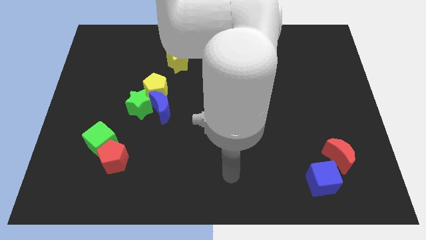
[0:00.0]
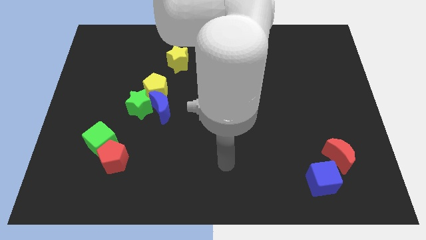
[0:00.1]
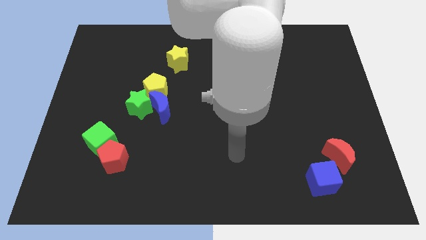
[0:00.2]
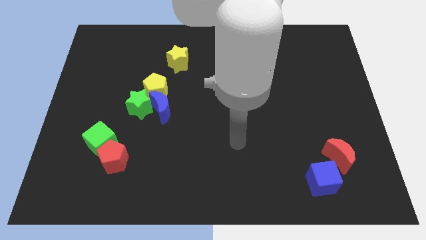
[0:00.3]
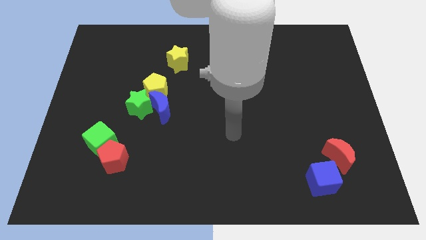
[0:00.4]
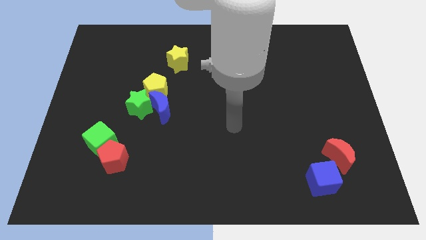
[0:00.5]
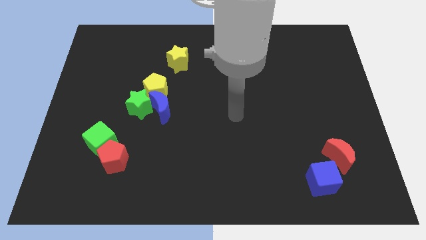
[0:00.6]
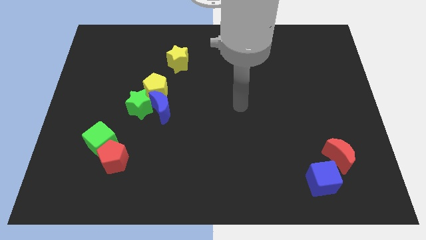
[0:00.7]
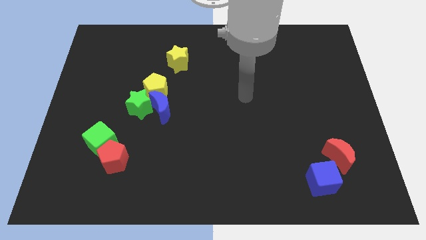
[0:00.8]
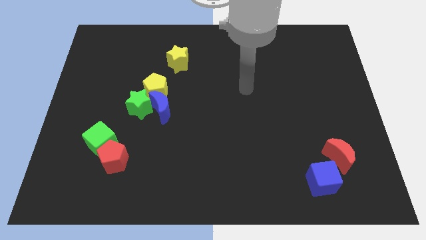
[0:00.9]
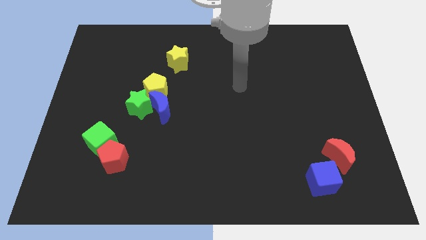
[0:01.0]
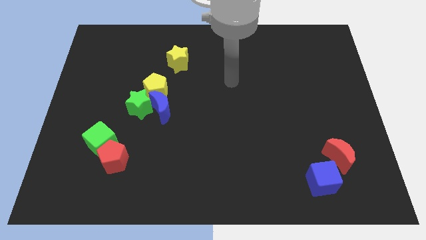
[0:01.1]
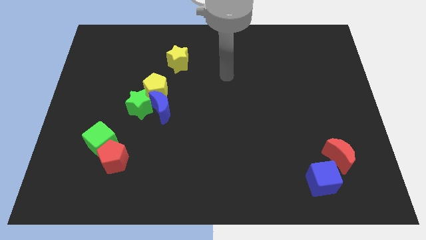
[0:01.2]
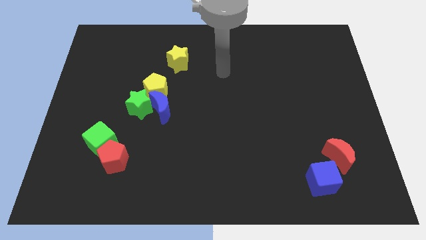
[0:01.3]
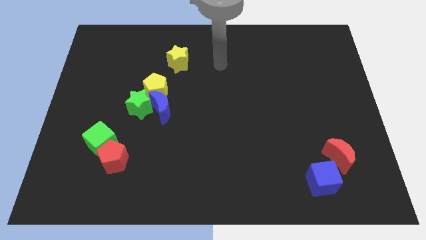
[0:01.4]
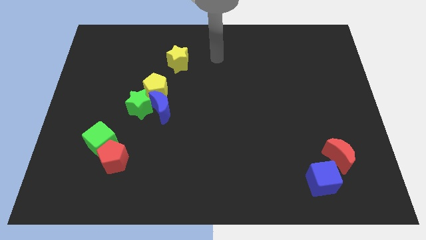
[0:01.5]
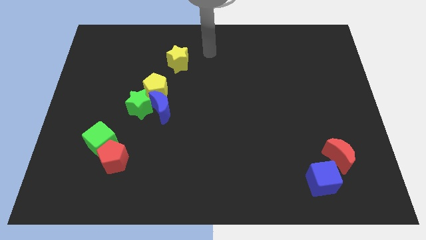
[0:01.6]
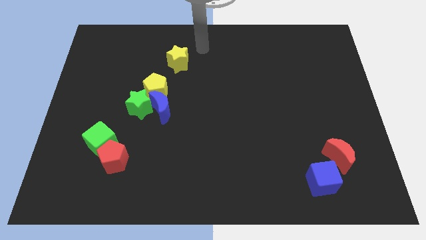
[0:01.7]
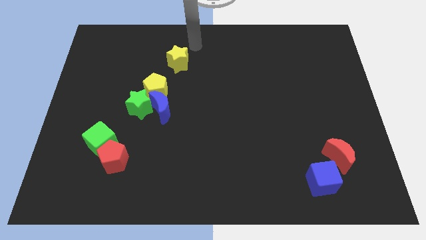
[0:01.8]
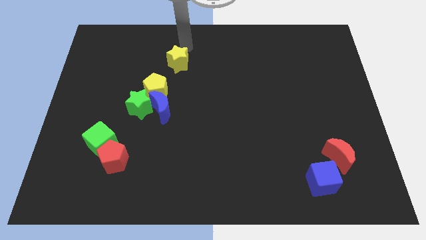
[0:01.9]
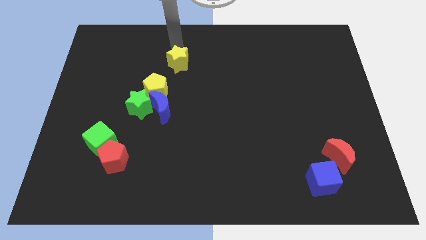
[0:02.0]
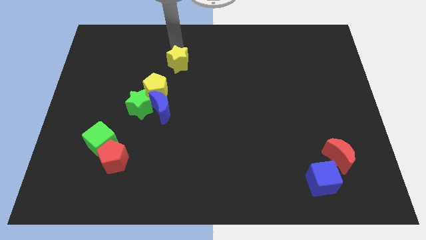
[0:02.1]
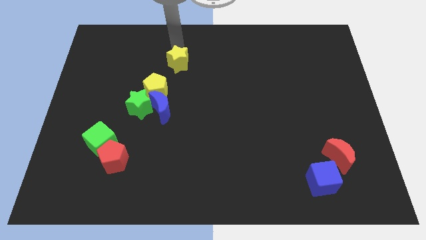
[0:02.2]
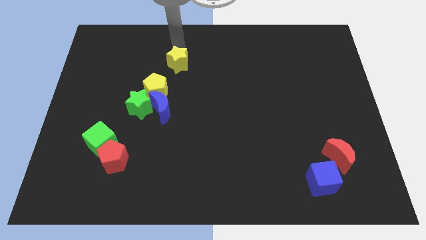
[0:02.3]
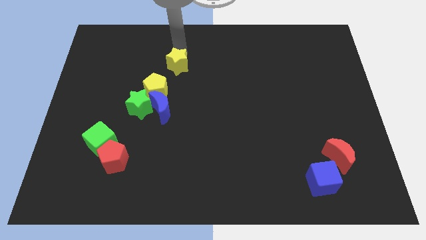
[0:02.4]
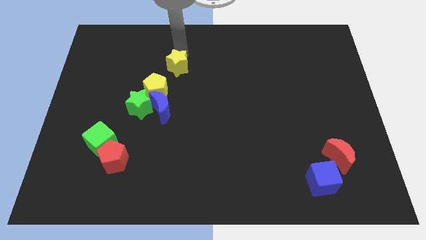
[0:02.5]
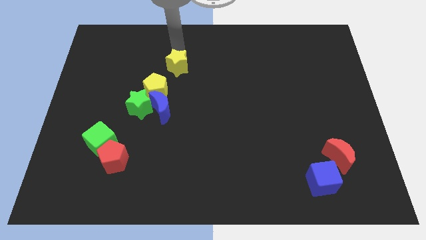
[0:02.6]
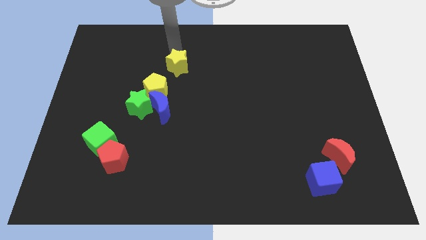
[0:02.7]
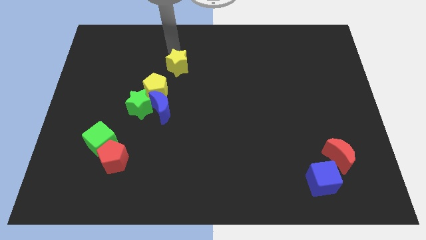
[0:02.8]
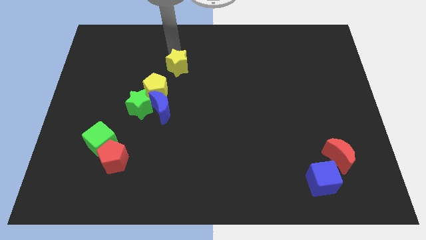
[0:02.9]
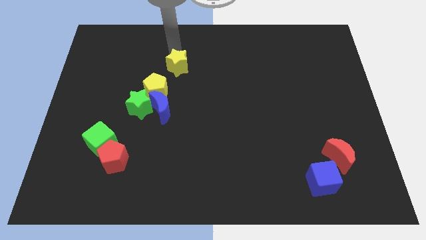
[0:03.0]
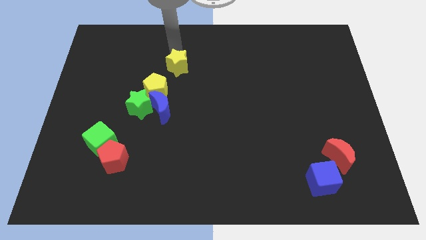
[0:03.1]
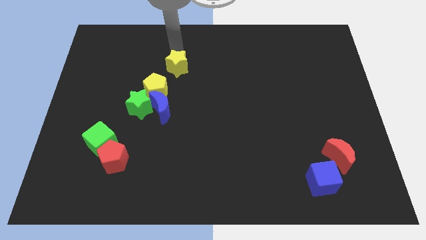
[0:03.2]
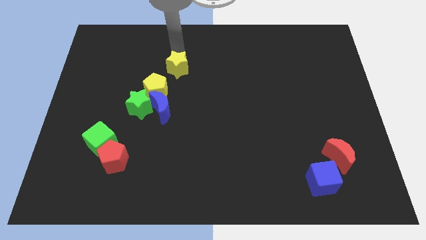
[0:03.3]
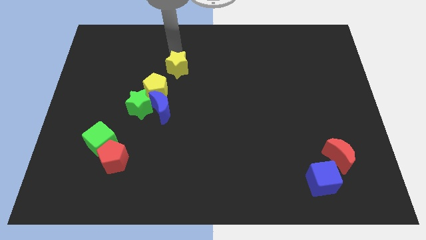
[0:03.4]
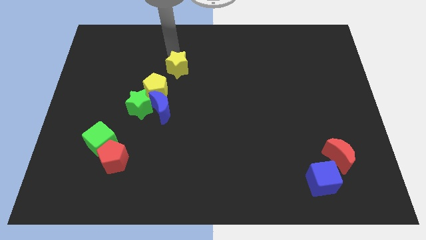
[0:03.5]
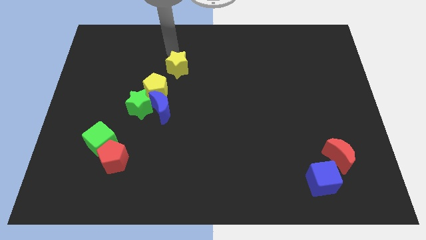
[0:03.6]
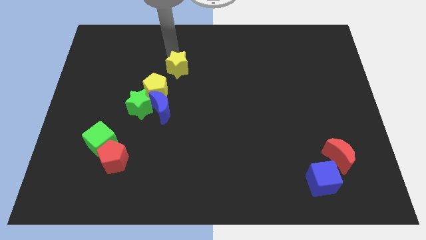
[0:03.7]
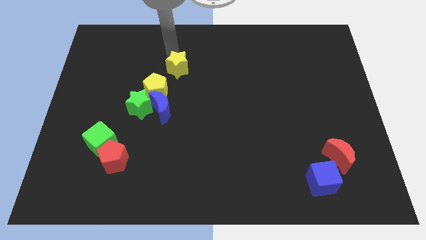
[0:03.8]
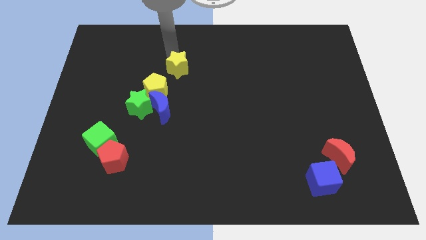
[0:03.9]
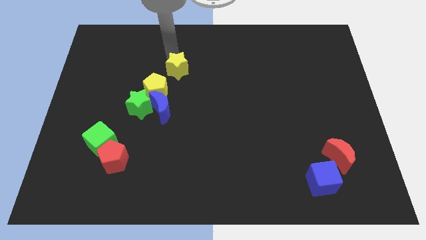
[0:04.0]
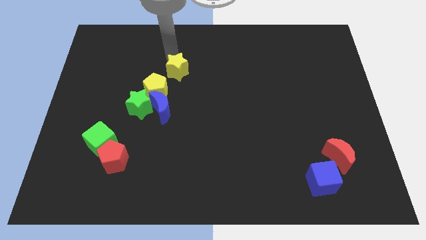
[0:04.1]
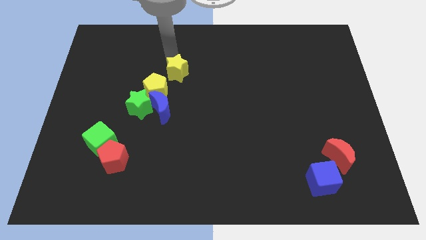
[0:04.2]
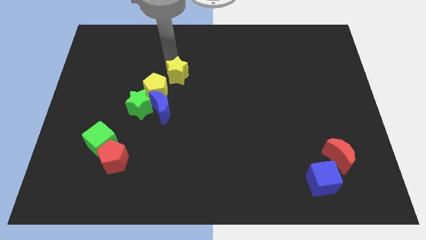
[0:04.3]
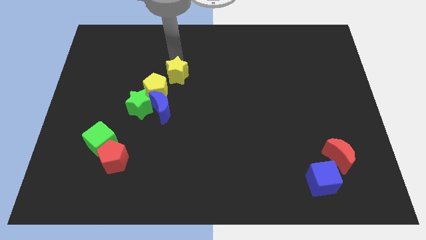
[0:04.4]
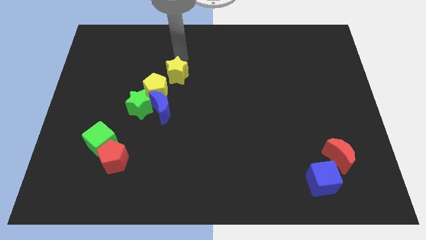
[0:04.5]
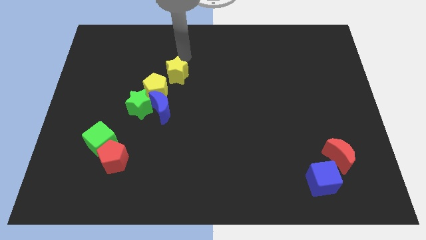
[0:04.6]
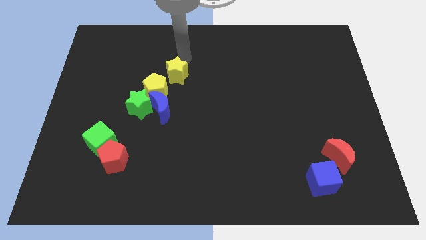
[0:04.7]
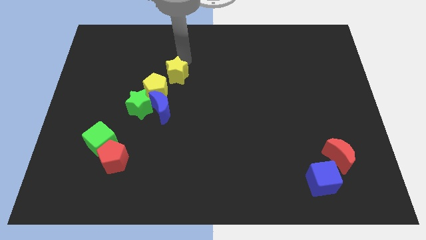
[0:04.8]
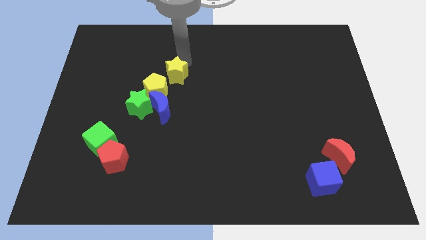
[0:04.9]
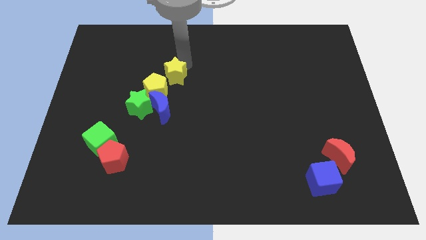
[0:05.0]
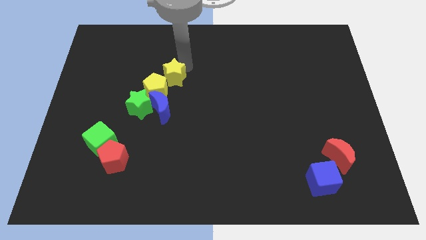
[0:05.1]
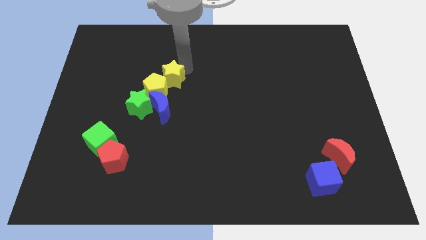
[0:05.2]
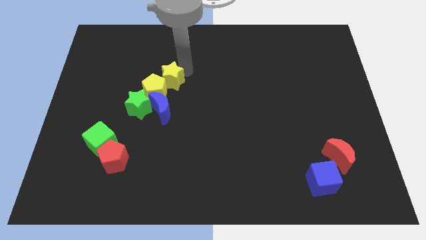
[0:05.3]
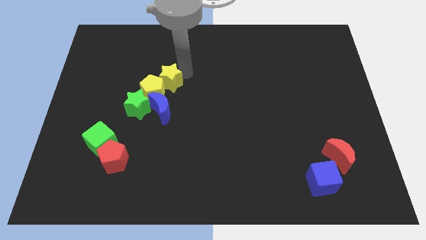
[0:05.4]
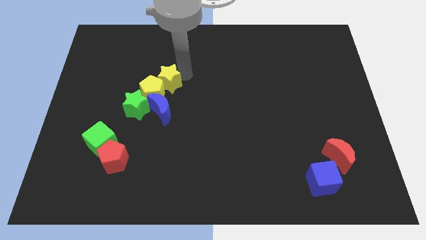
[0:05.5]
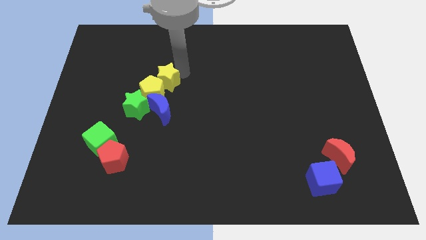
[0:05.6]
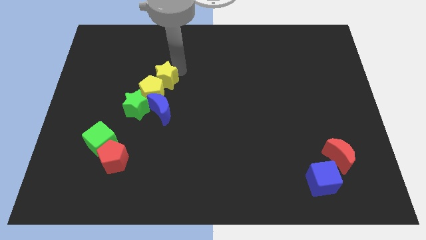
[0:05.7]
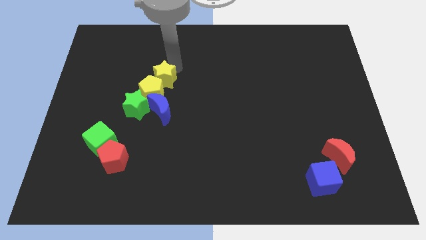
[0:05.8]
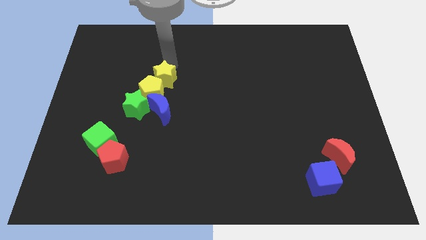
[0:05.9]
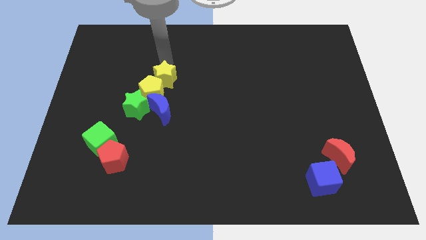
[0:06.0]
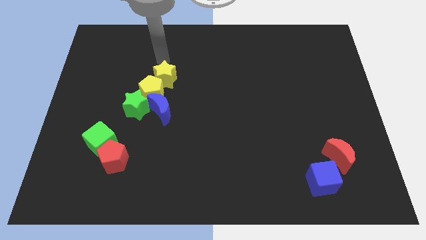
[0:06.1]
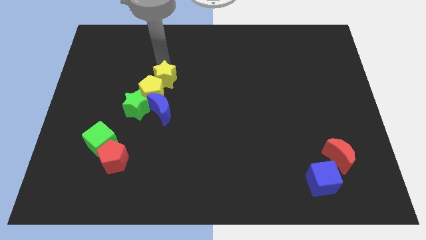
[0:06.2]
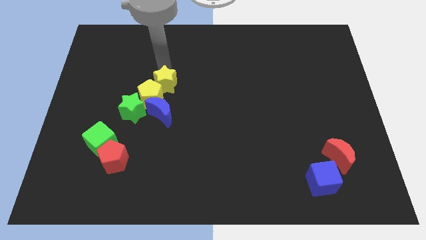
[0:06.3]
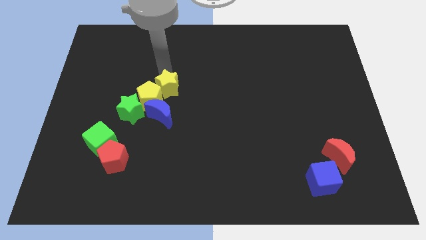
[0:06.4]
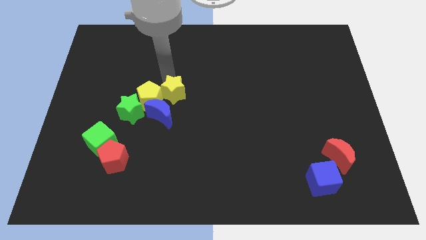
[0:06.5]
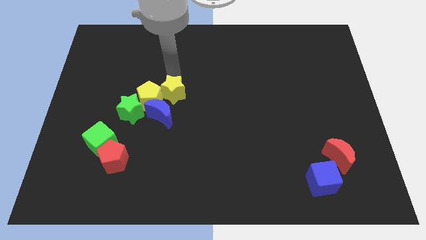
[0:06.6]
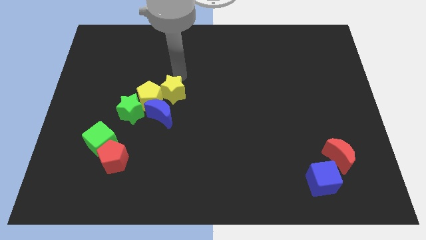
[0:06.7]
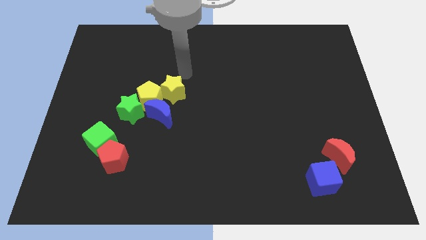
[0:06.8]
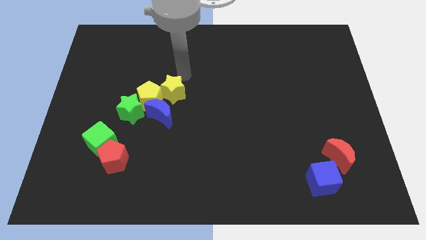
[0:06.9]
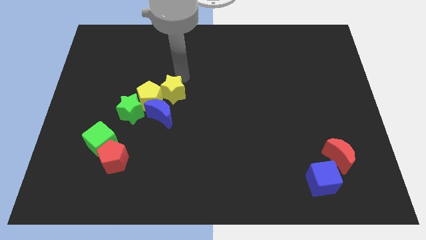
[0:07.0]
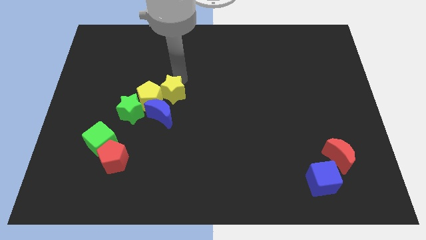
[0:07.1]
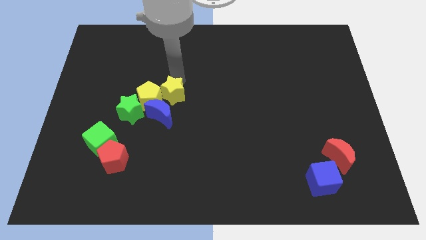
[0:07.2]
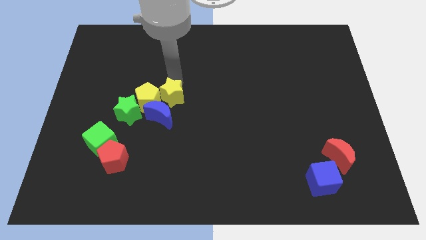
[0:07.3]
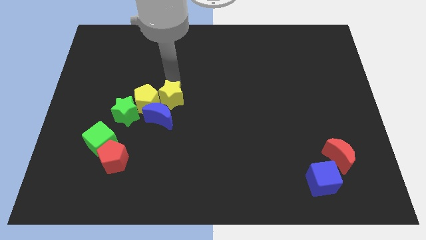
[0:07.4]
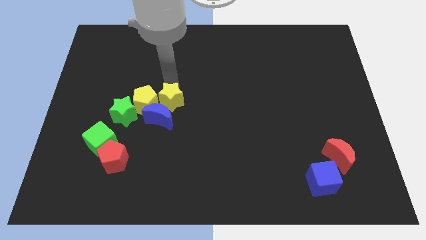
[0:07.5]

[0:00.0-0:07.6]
put the yellow star next to the blue moon
